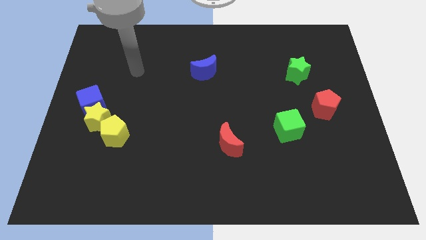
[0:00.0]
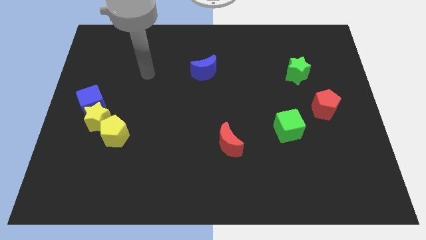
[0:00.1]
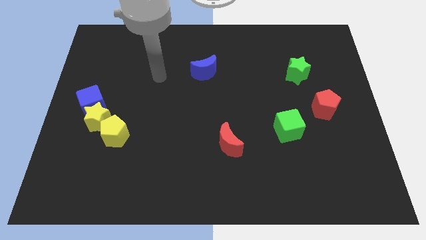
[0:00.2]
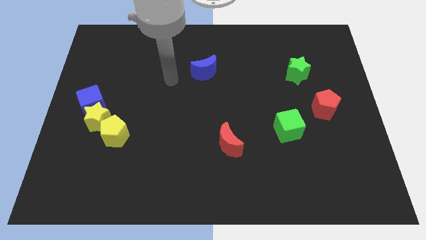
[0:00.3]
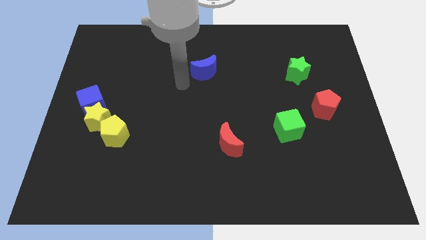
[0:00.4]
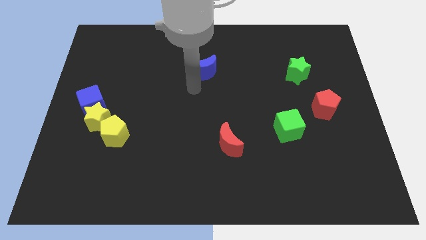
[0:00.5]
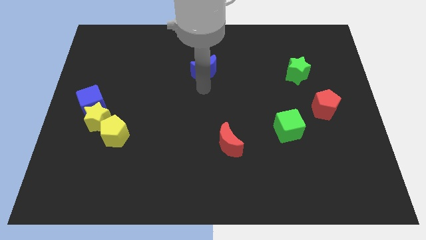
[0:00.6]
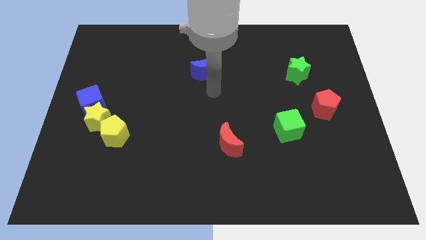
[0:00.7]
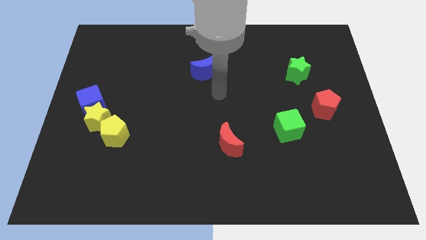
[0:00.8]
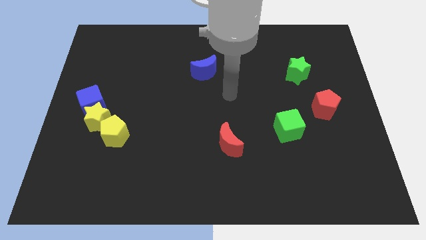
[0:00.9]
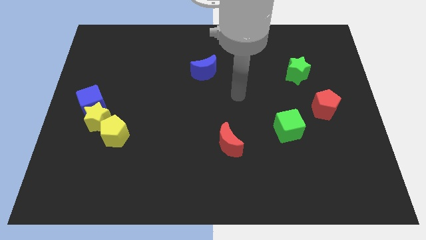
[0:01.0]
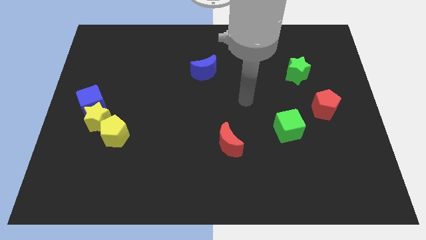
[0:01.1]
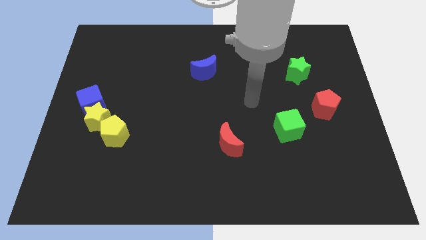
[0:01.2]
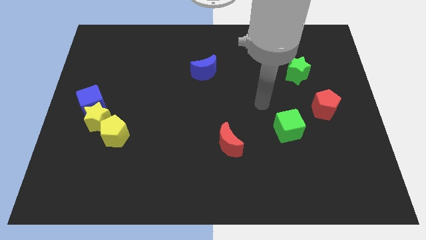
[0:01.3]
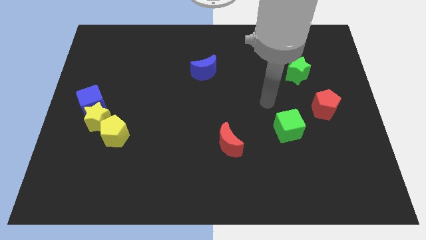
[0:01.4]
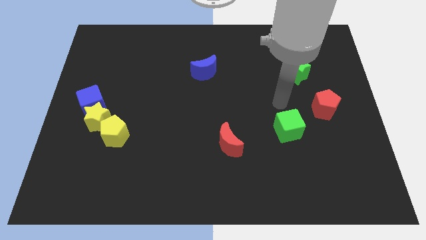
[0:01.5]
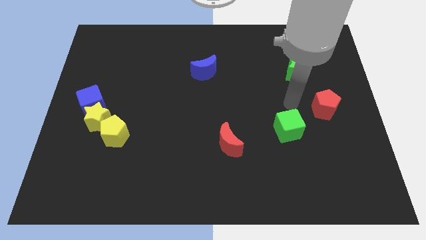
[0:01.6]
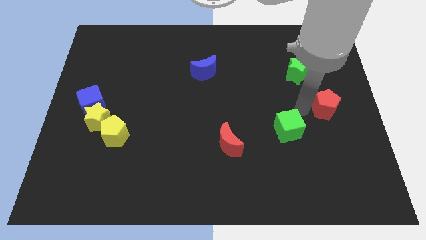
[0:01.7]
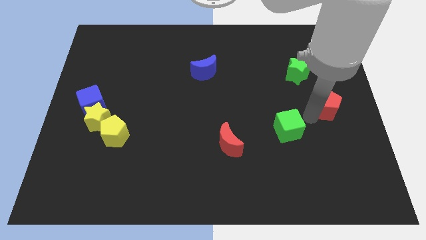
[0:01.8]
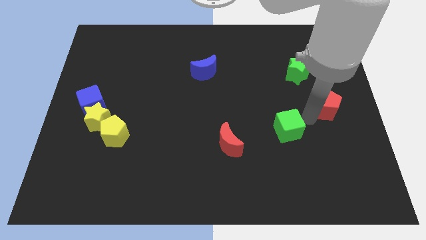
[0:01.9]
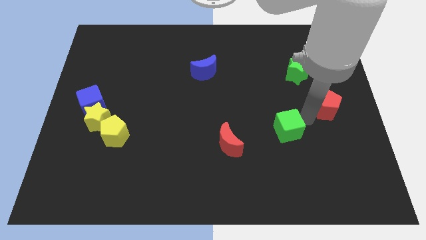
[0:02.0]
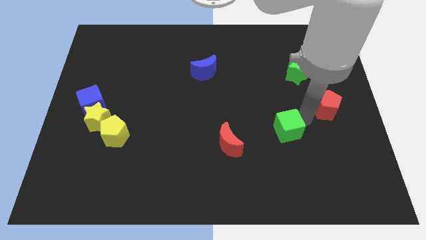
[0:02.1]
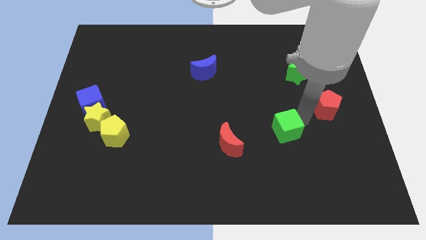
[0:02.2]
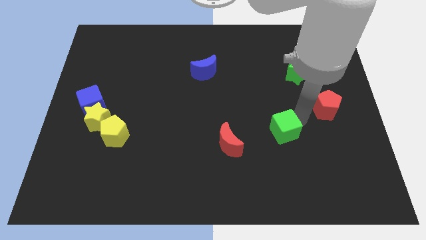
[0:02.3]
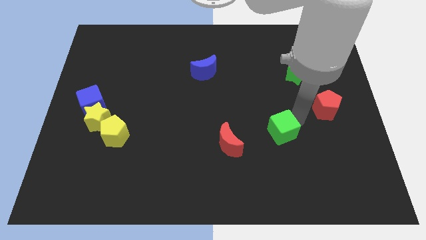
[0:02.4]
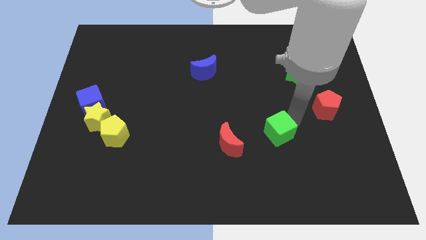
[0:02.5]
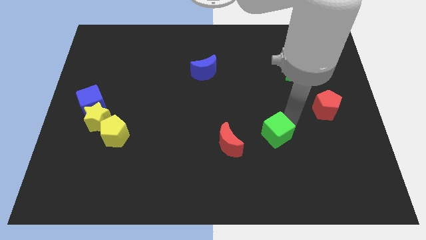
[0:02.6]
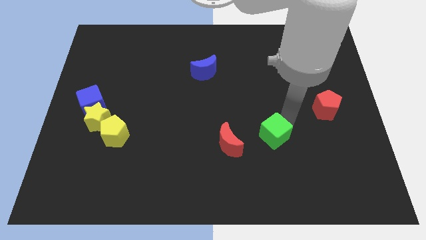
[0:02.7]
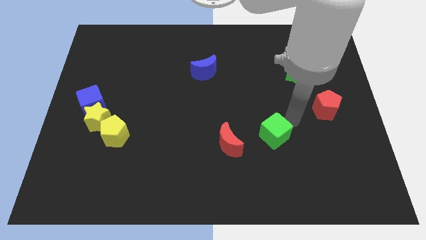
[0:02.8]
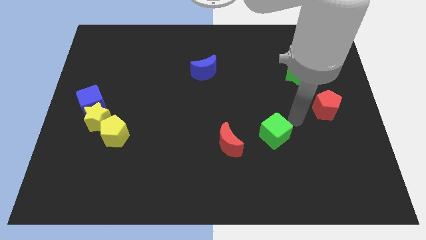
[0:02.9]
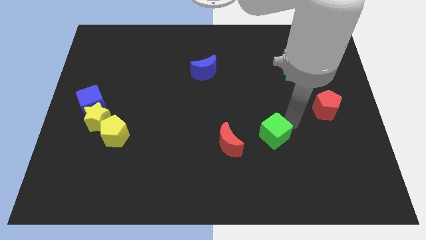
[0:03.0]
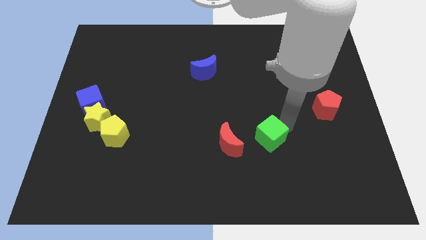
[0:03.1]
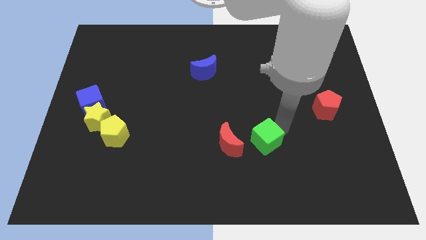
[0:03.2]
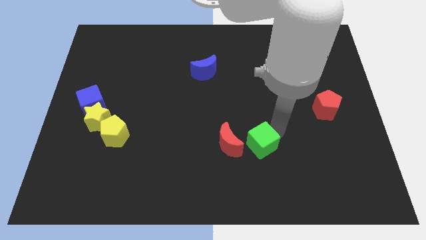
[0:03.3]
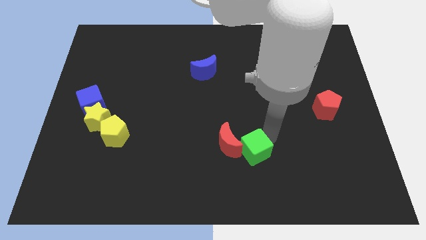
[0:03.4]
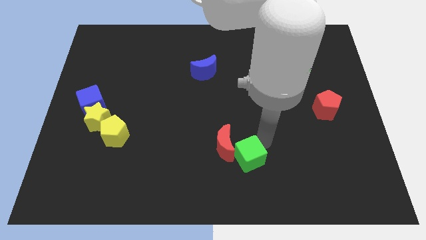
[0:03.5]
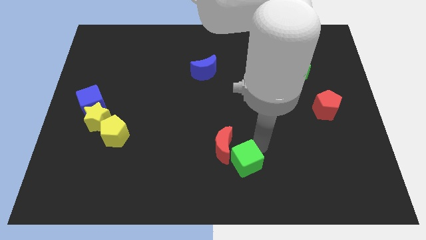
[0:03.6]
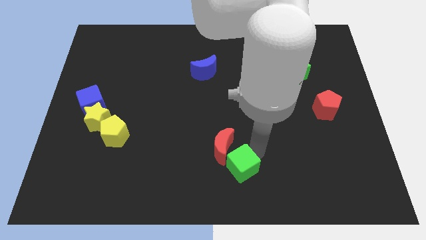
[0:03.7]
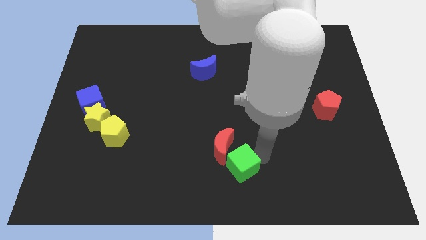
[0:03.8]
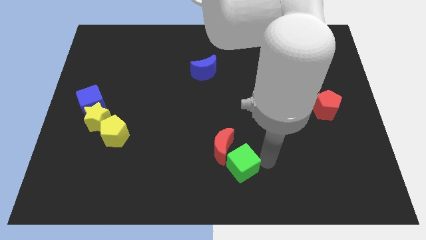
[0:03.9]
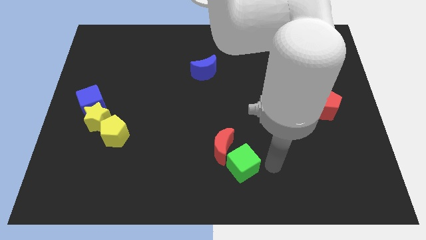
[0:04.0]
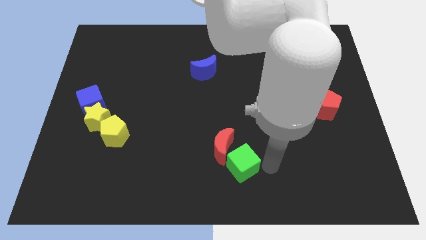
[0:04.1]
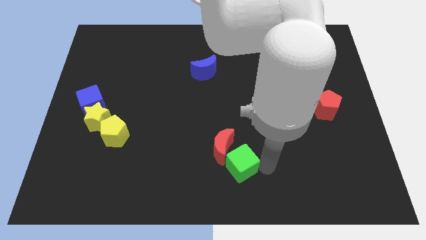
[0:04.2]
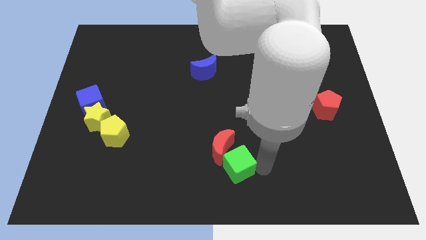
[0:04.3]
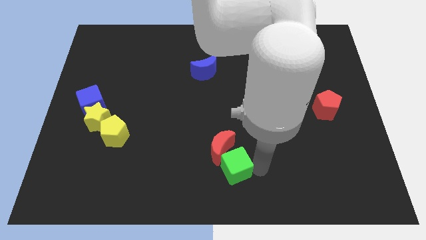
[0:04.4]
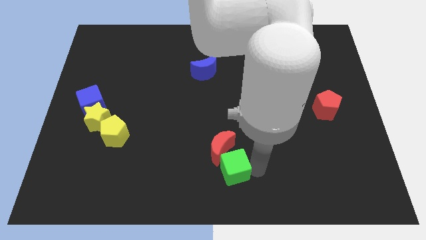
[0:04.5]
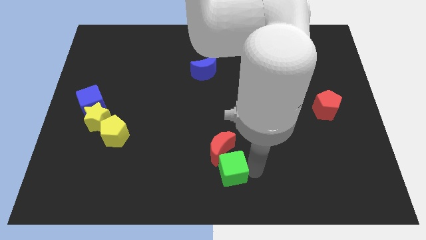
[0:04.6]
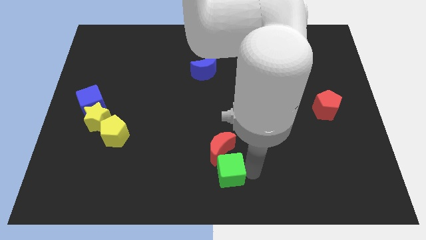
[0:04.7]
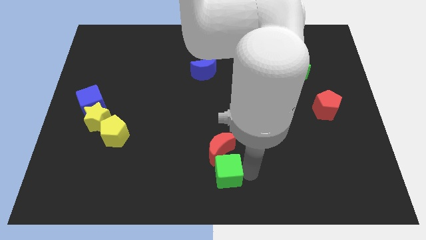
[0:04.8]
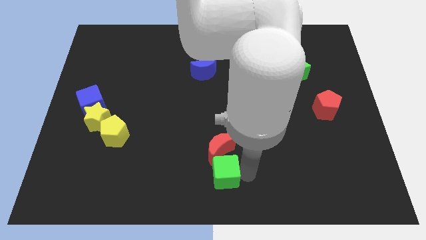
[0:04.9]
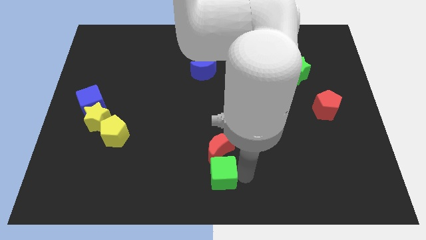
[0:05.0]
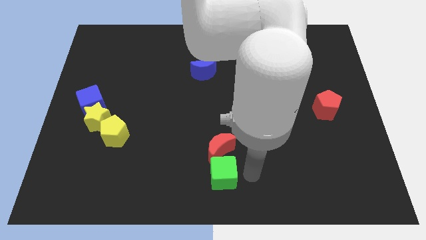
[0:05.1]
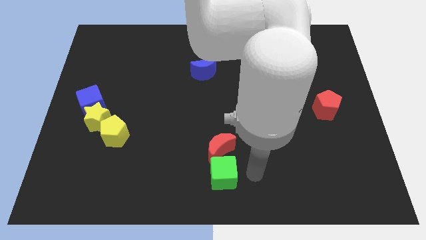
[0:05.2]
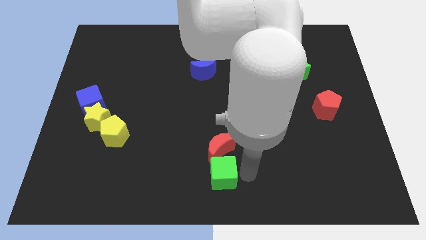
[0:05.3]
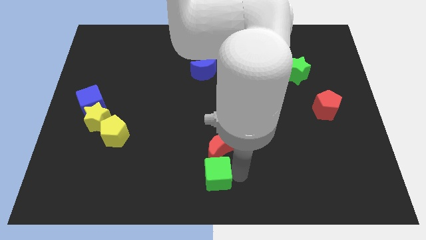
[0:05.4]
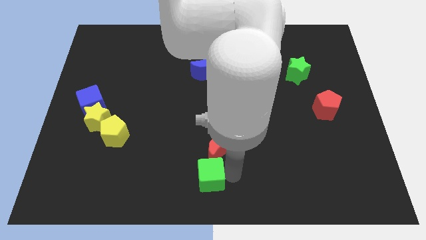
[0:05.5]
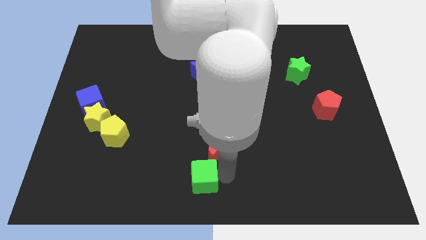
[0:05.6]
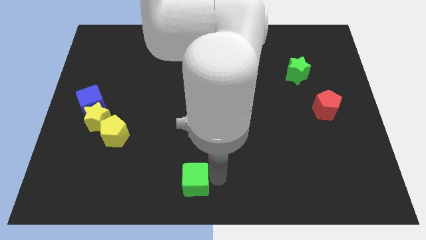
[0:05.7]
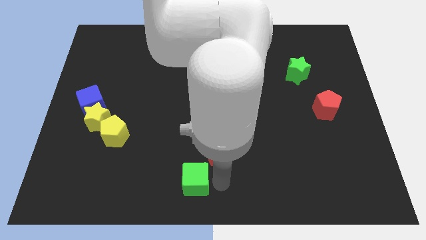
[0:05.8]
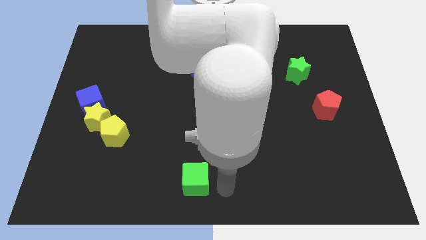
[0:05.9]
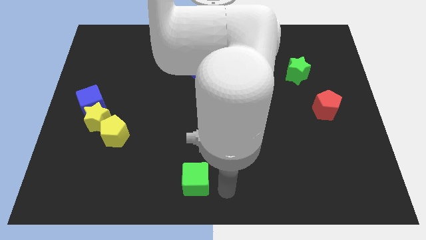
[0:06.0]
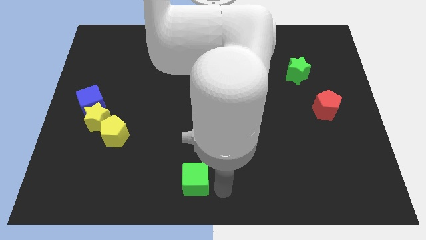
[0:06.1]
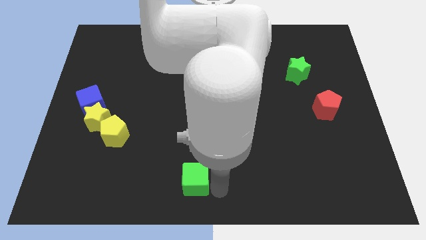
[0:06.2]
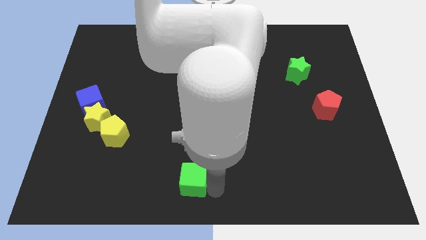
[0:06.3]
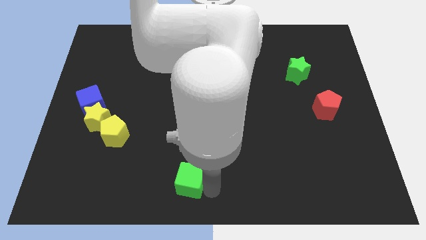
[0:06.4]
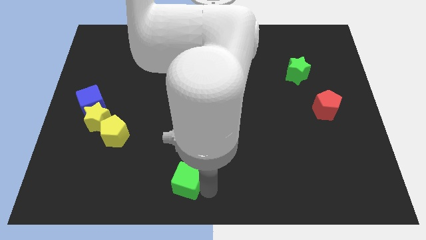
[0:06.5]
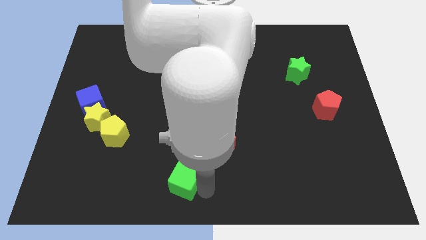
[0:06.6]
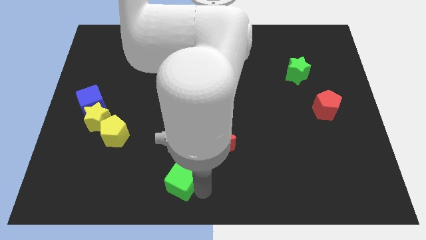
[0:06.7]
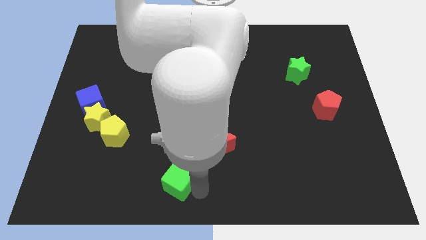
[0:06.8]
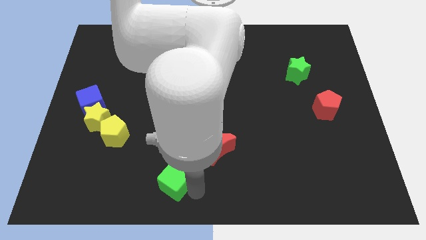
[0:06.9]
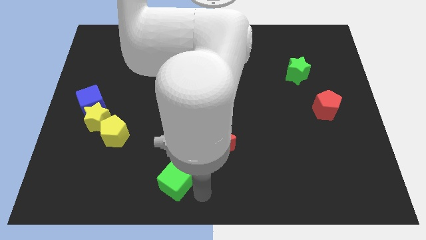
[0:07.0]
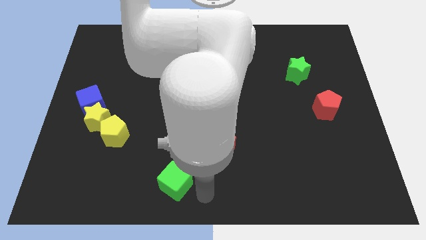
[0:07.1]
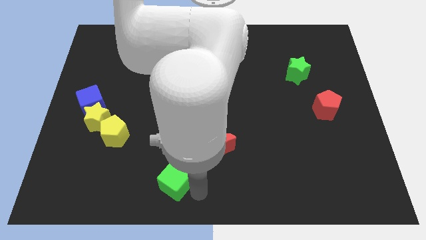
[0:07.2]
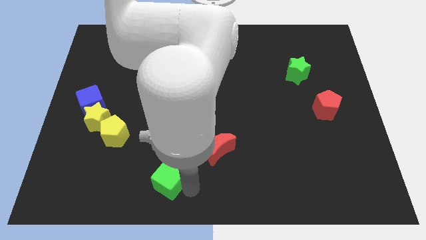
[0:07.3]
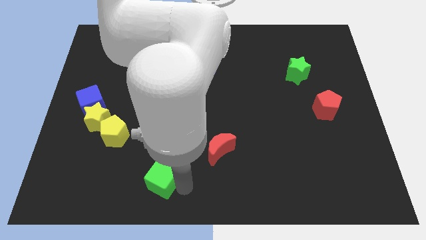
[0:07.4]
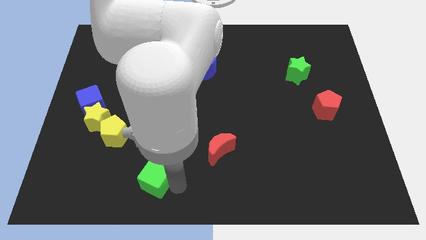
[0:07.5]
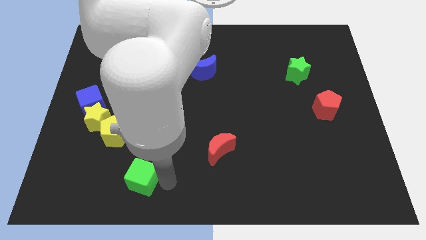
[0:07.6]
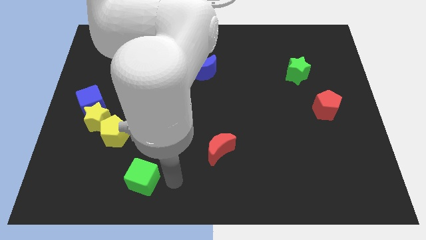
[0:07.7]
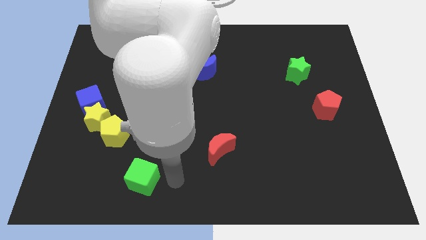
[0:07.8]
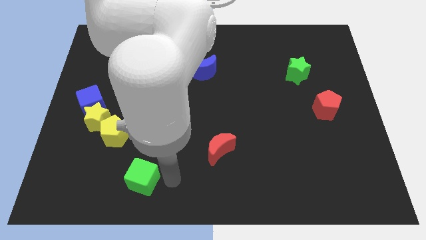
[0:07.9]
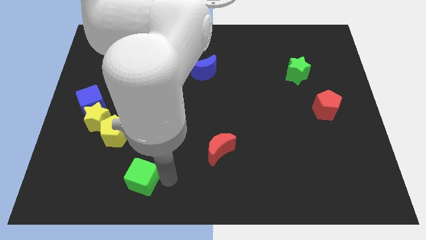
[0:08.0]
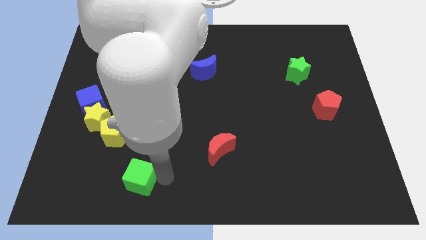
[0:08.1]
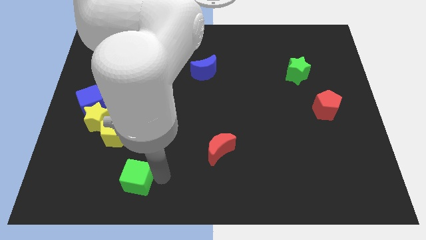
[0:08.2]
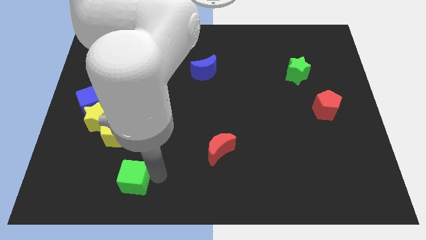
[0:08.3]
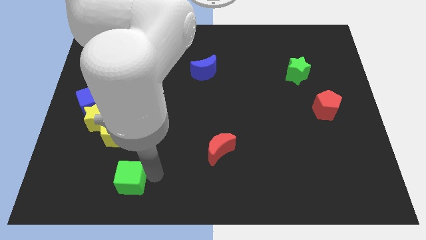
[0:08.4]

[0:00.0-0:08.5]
put the green cube to the bottom of the yellow pentagon
